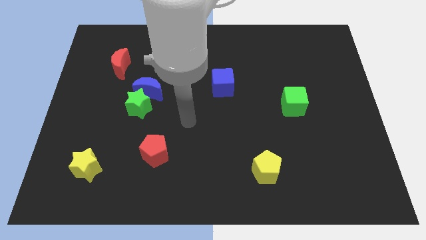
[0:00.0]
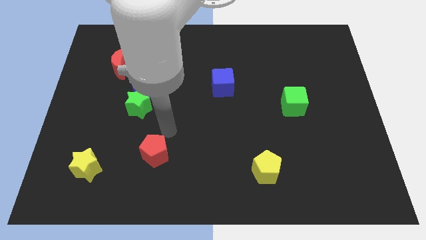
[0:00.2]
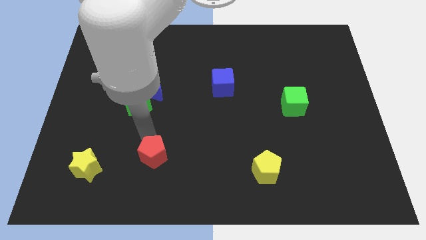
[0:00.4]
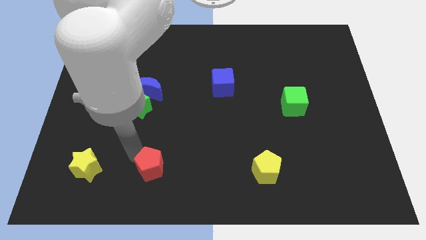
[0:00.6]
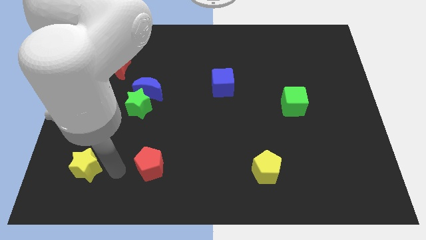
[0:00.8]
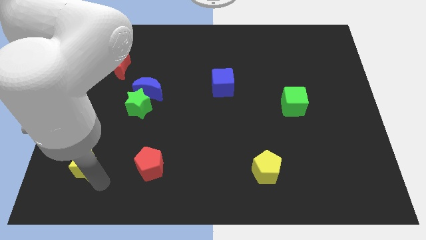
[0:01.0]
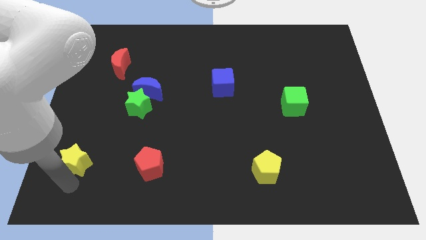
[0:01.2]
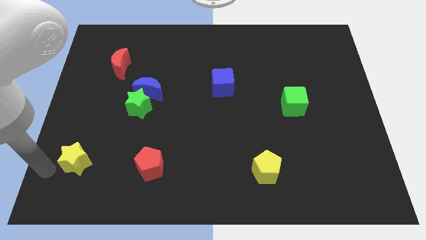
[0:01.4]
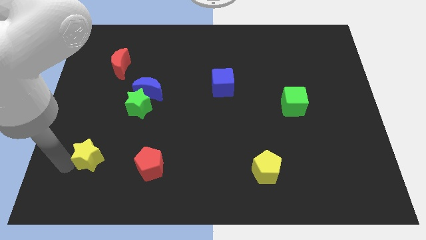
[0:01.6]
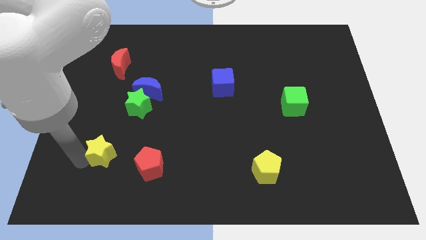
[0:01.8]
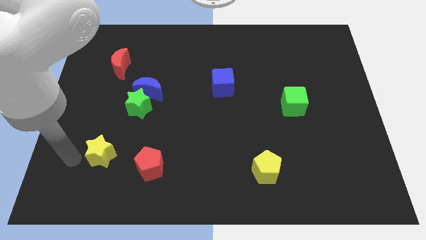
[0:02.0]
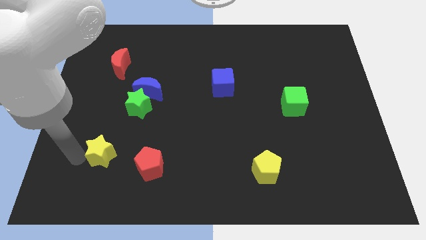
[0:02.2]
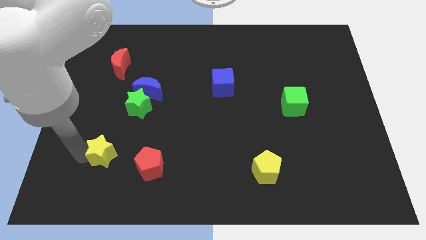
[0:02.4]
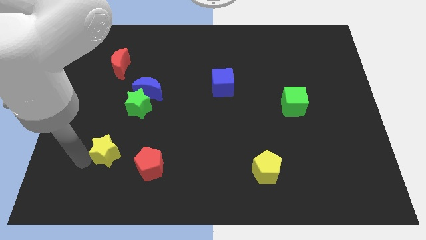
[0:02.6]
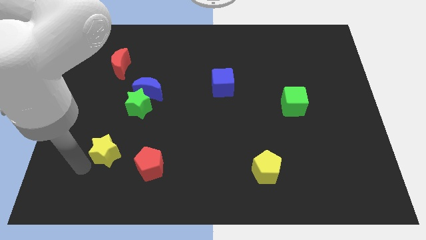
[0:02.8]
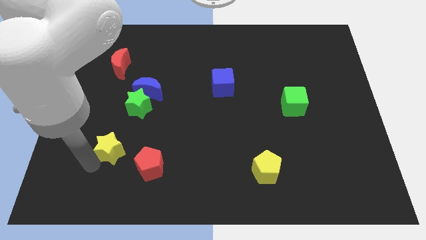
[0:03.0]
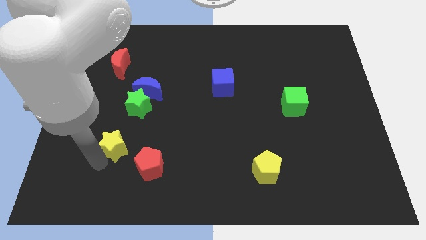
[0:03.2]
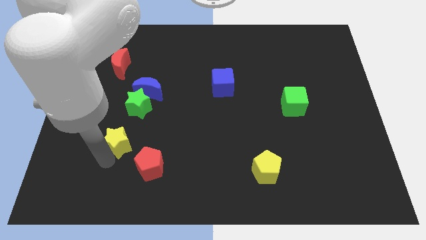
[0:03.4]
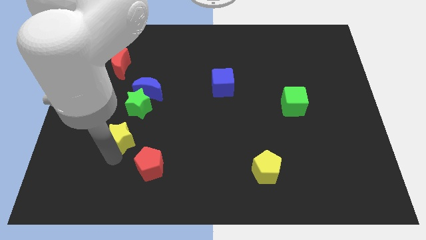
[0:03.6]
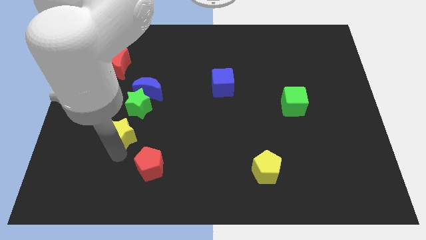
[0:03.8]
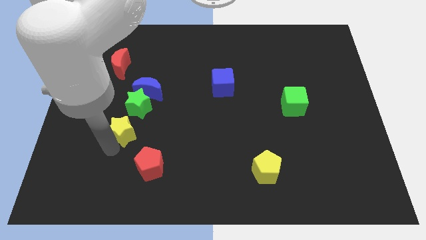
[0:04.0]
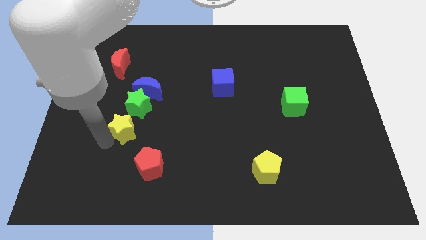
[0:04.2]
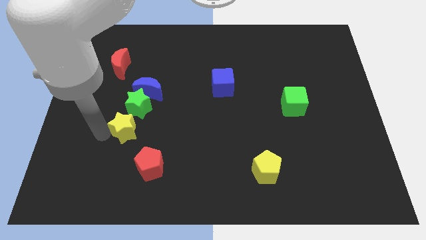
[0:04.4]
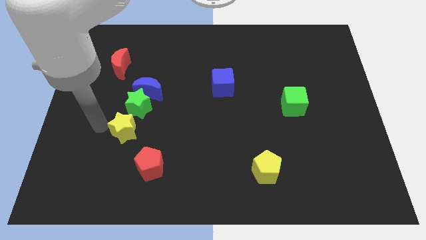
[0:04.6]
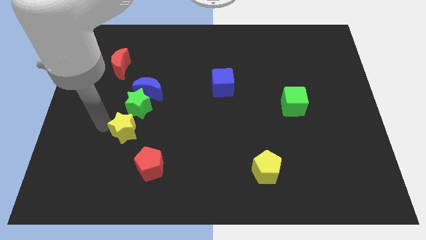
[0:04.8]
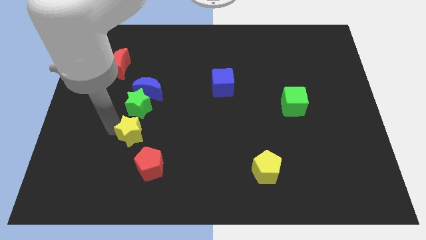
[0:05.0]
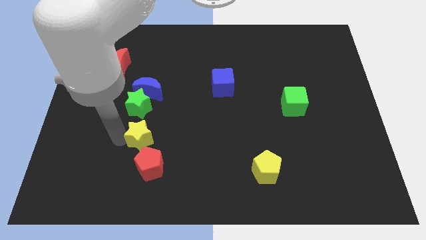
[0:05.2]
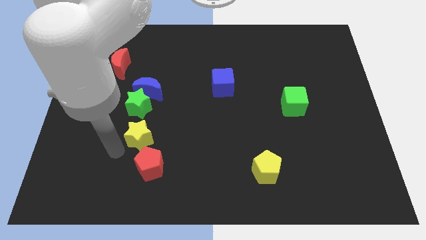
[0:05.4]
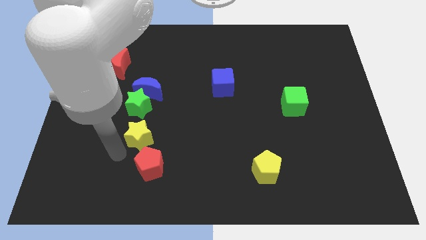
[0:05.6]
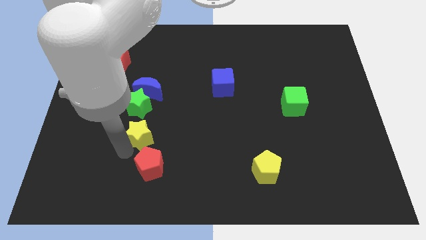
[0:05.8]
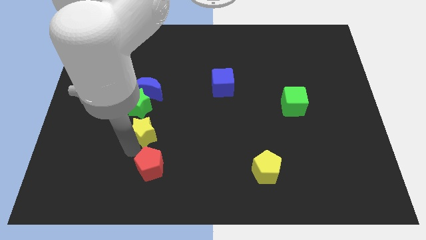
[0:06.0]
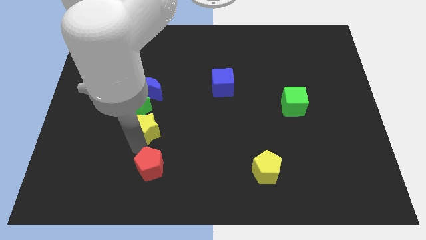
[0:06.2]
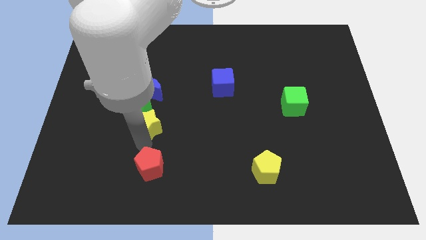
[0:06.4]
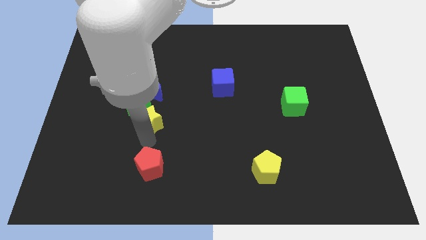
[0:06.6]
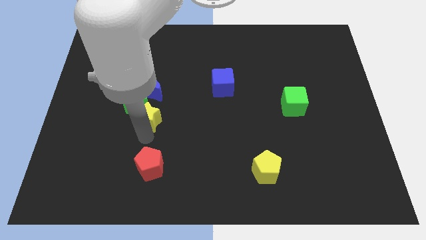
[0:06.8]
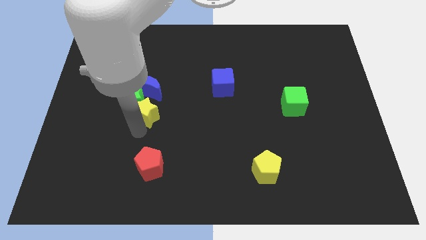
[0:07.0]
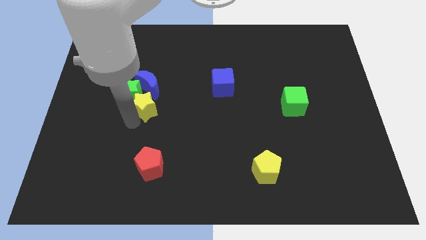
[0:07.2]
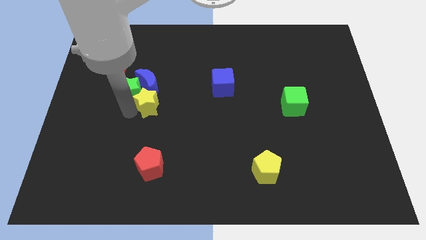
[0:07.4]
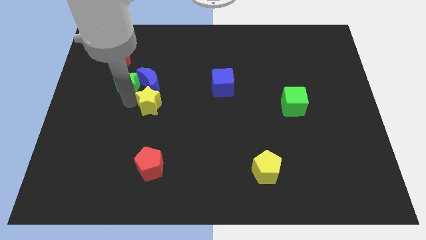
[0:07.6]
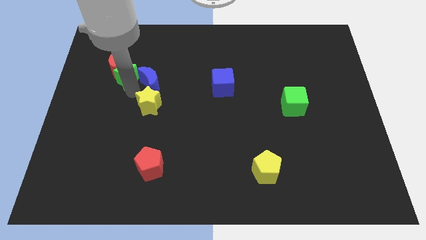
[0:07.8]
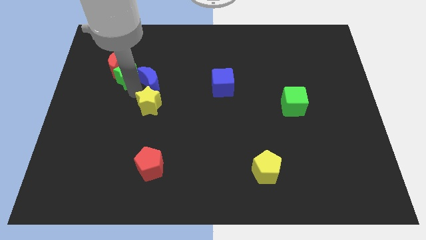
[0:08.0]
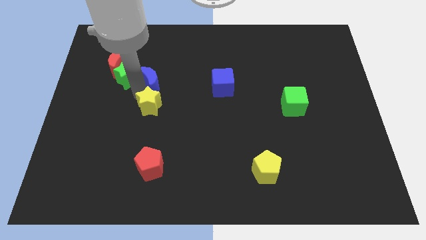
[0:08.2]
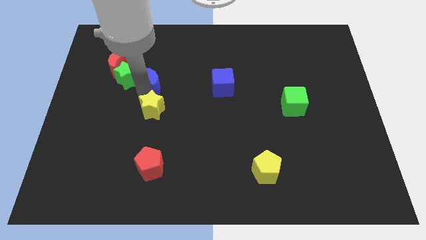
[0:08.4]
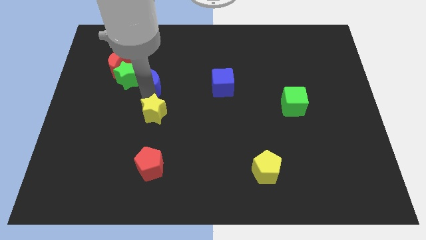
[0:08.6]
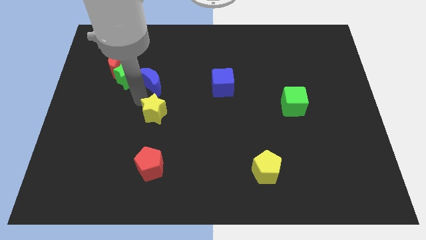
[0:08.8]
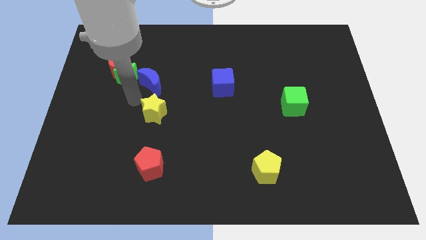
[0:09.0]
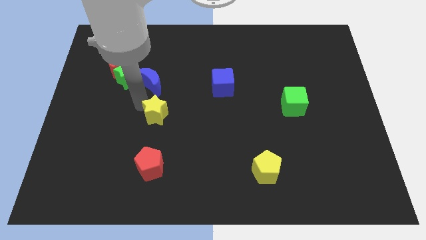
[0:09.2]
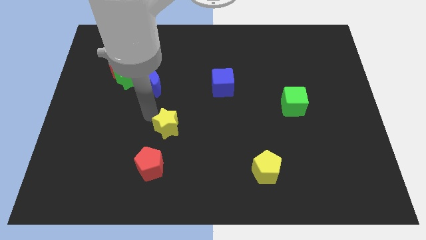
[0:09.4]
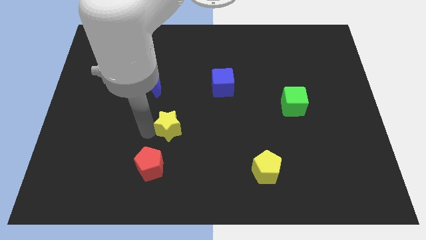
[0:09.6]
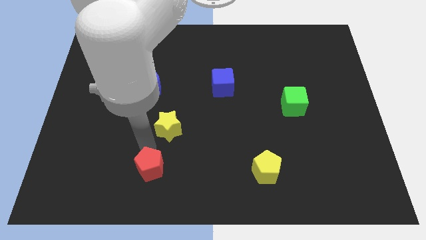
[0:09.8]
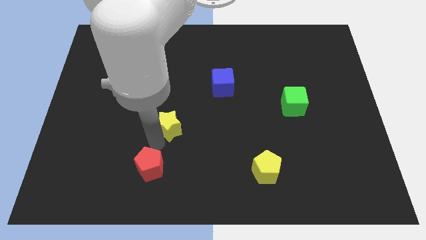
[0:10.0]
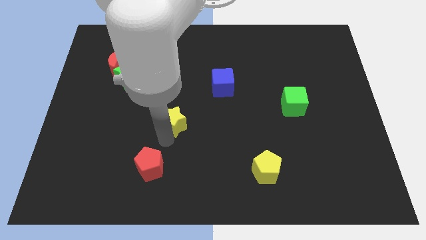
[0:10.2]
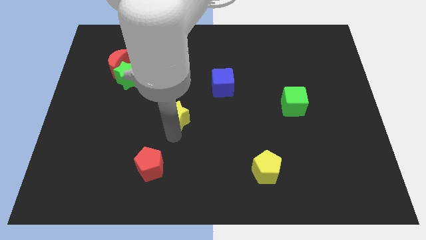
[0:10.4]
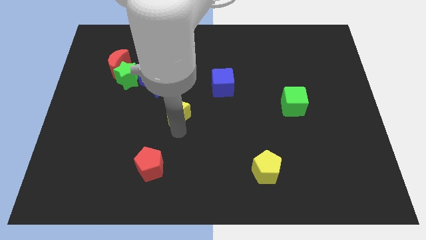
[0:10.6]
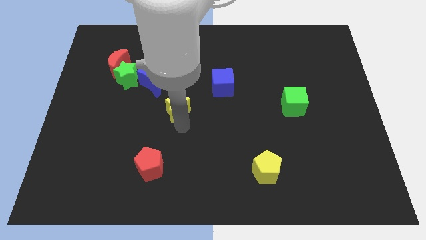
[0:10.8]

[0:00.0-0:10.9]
move the yellow star diagonally down and to the left of the blue cube

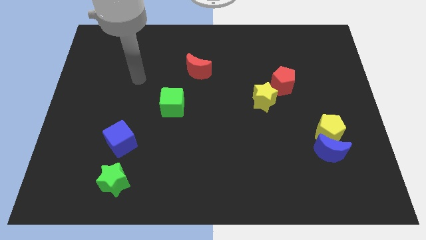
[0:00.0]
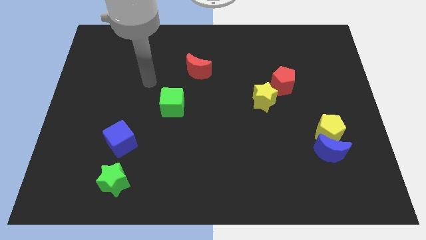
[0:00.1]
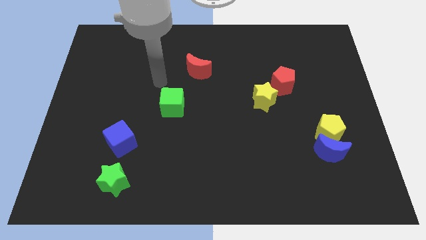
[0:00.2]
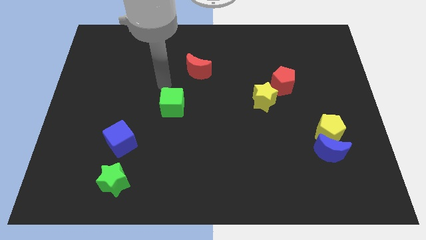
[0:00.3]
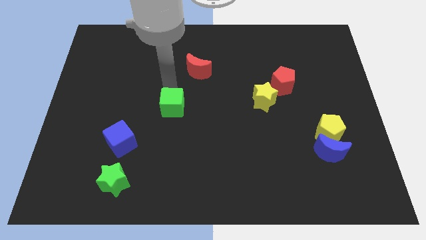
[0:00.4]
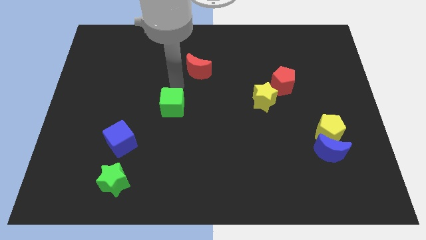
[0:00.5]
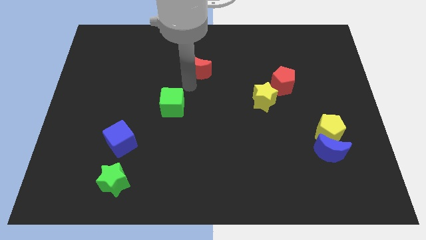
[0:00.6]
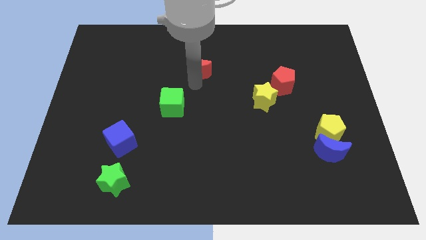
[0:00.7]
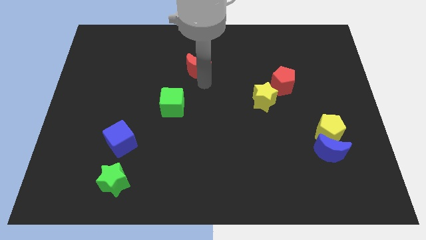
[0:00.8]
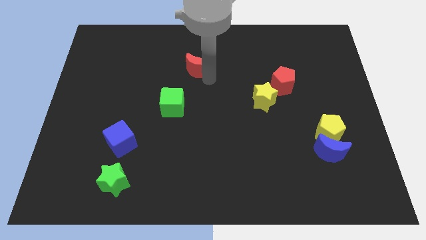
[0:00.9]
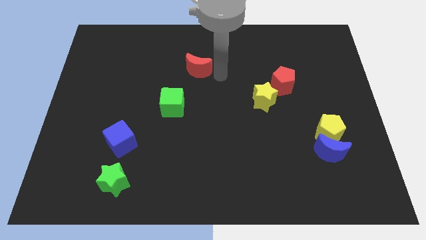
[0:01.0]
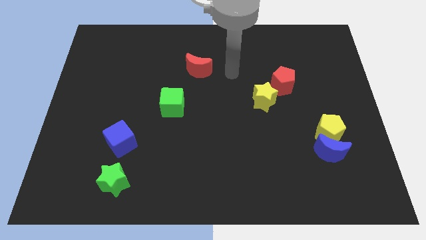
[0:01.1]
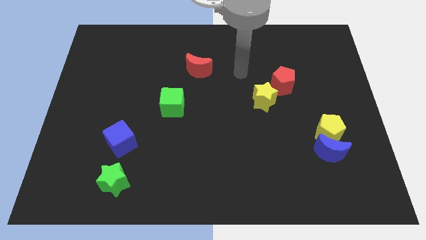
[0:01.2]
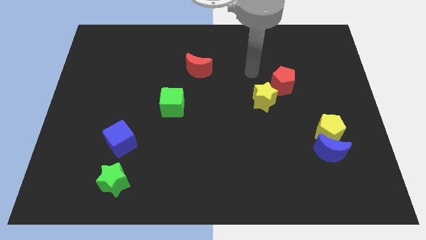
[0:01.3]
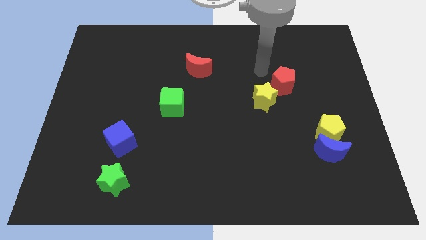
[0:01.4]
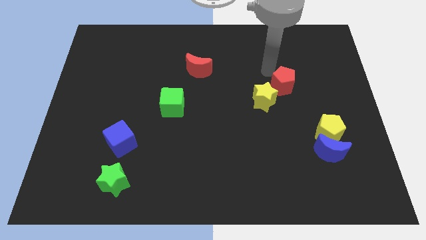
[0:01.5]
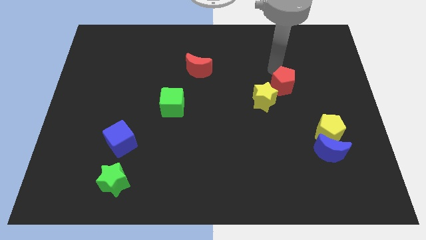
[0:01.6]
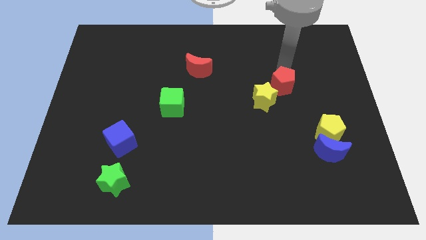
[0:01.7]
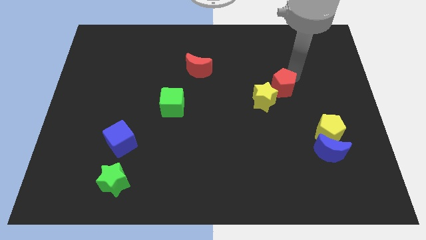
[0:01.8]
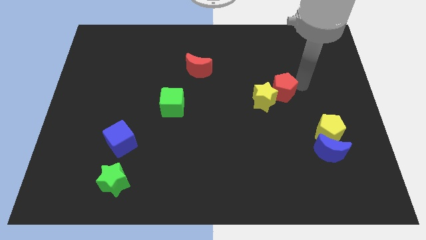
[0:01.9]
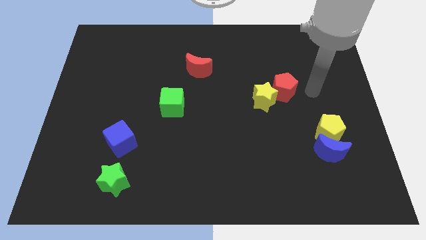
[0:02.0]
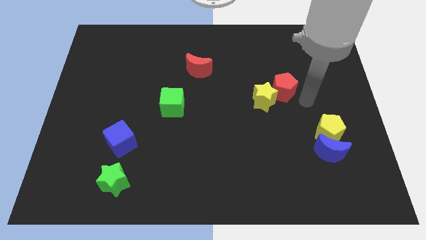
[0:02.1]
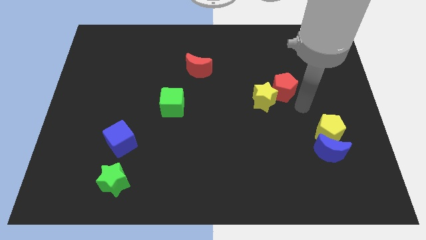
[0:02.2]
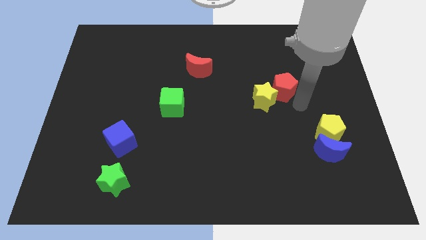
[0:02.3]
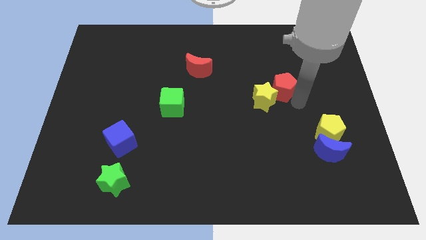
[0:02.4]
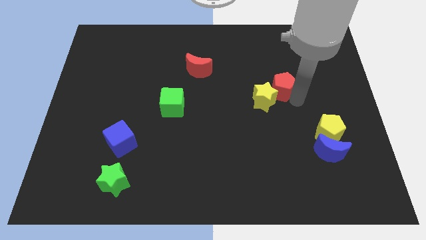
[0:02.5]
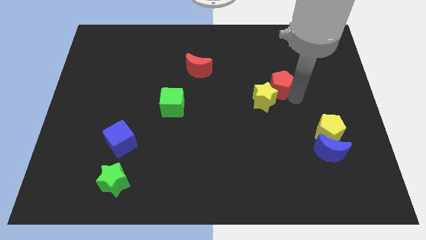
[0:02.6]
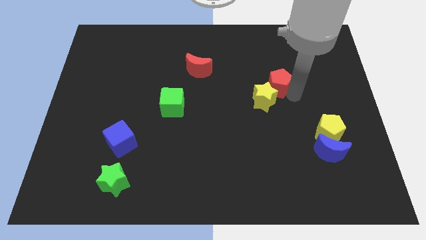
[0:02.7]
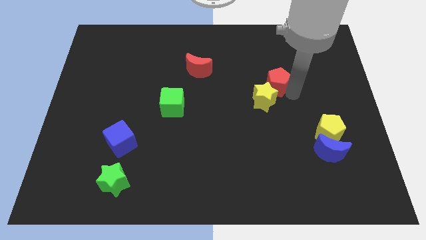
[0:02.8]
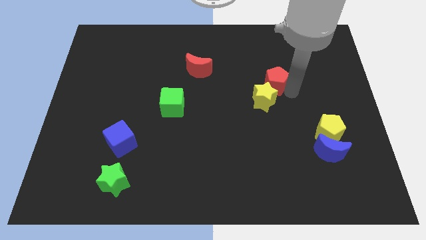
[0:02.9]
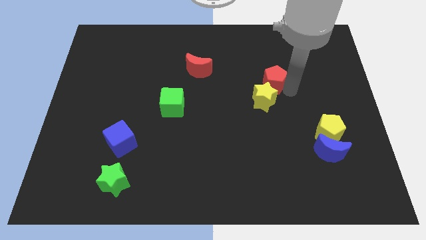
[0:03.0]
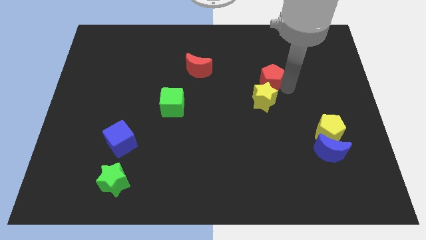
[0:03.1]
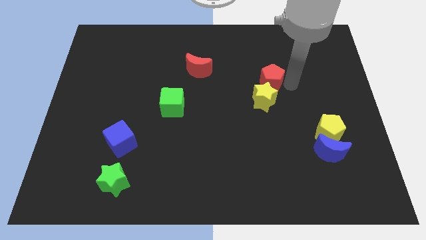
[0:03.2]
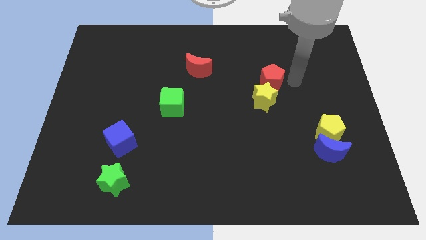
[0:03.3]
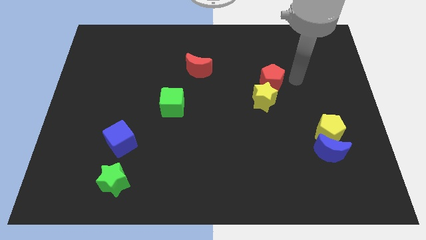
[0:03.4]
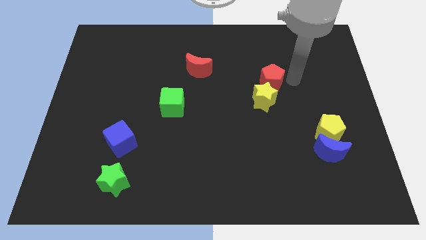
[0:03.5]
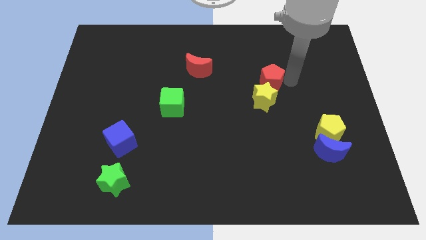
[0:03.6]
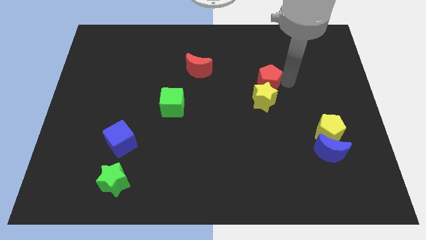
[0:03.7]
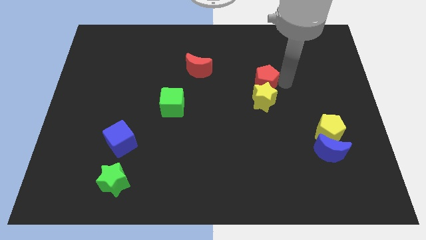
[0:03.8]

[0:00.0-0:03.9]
put the red pentagon to the top left side of the yellow star
